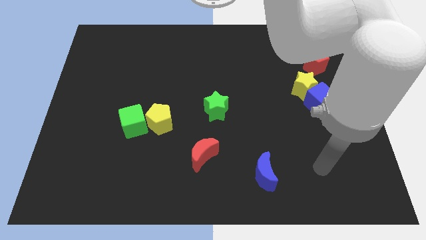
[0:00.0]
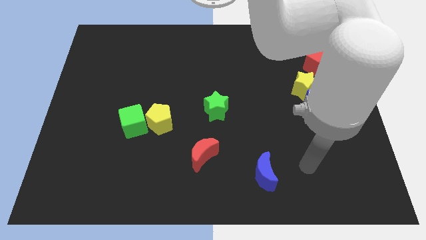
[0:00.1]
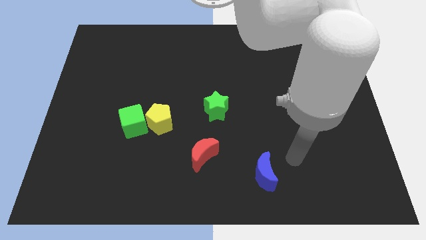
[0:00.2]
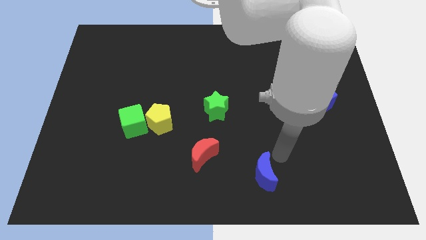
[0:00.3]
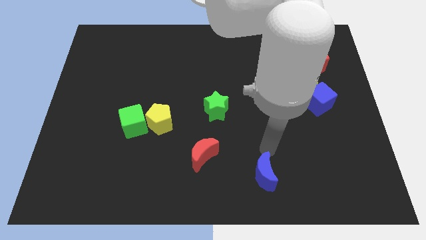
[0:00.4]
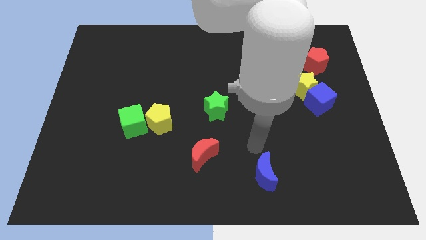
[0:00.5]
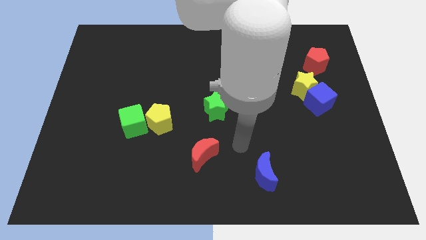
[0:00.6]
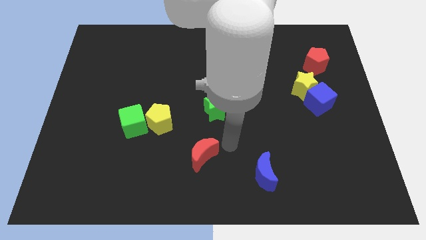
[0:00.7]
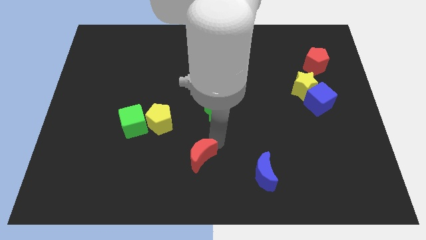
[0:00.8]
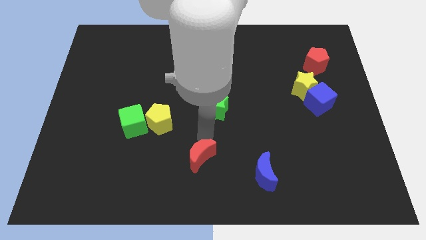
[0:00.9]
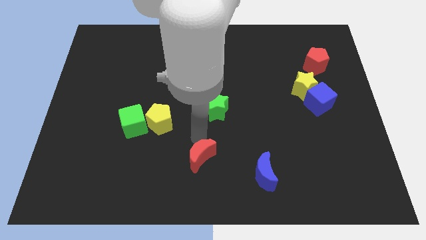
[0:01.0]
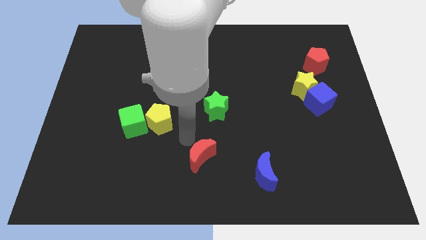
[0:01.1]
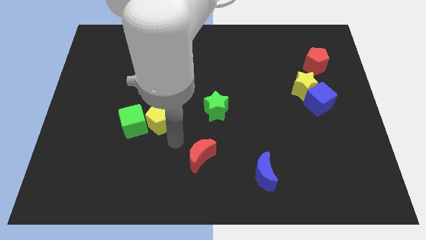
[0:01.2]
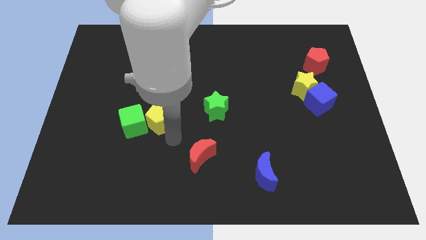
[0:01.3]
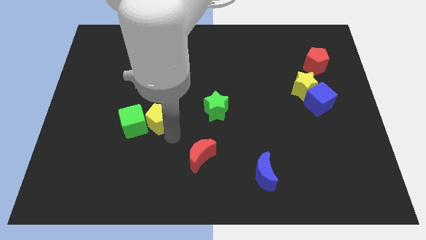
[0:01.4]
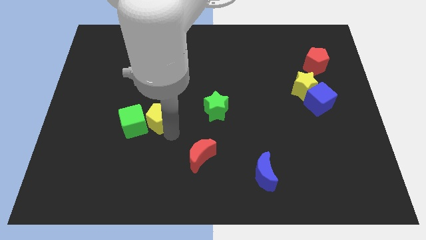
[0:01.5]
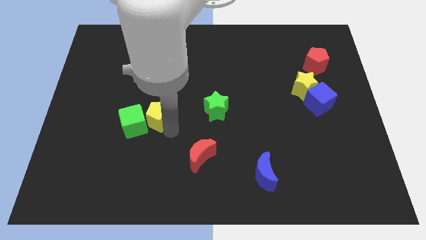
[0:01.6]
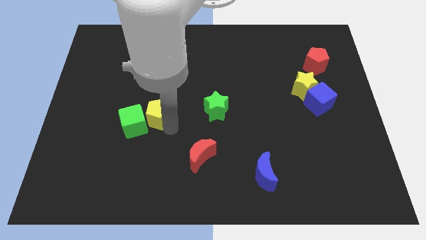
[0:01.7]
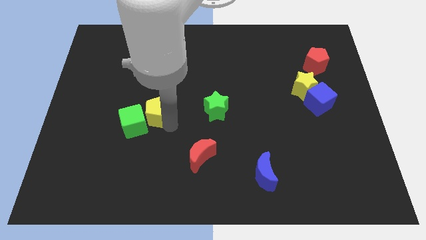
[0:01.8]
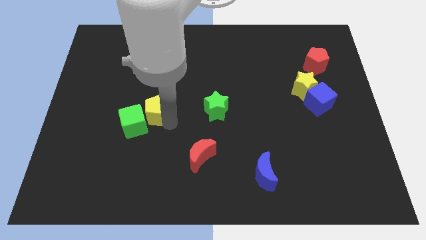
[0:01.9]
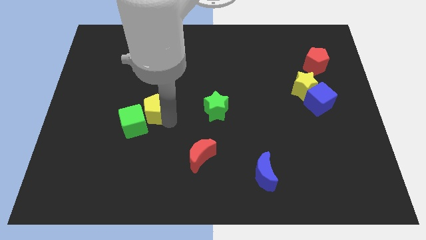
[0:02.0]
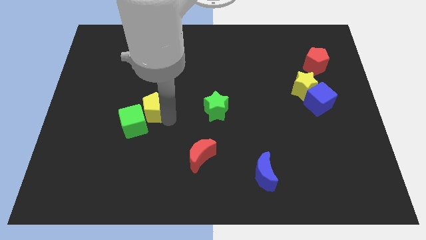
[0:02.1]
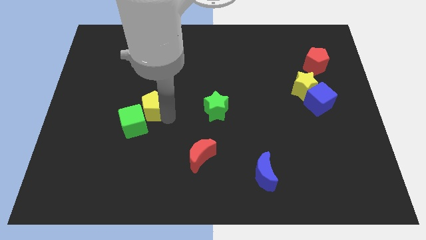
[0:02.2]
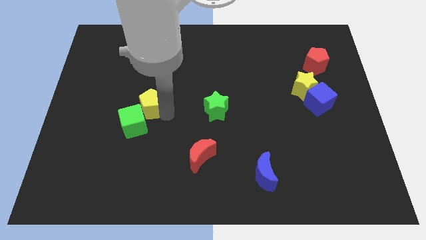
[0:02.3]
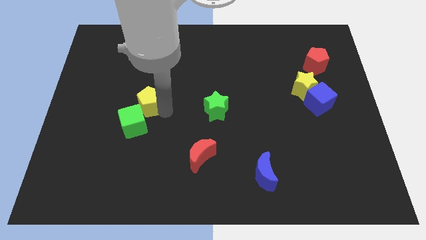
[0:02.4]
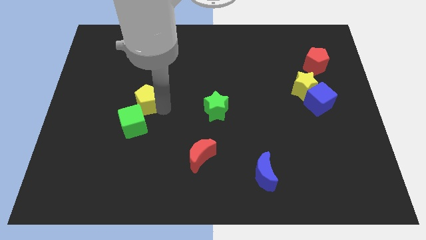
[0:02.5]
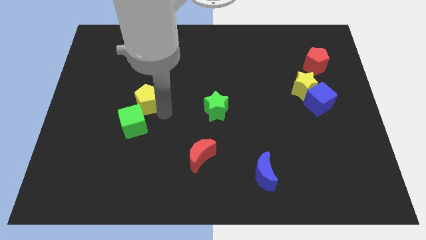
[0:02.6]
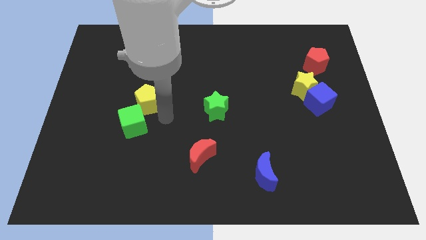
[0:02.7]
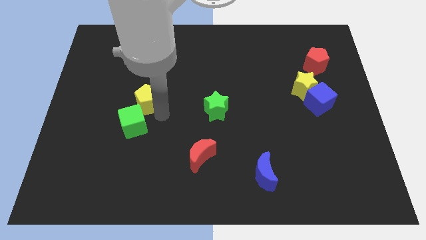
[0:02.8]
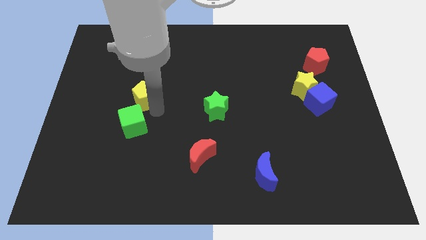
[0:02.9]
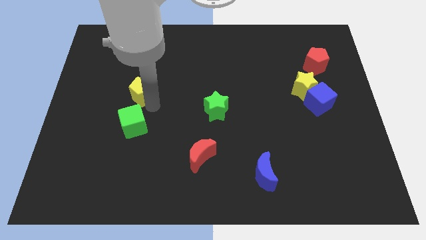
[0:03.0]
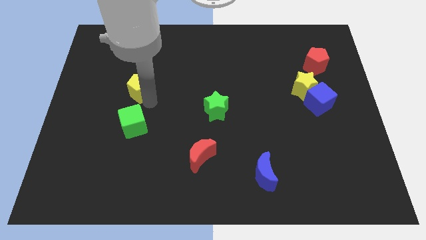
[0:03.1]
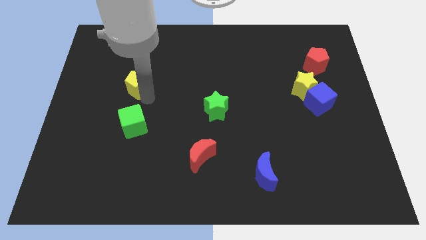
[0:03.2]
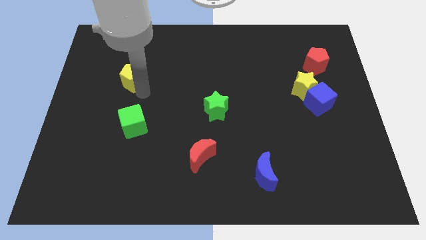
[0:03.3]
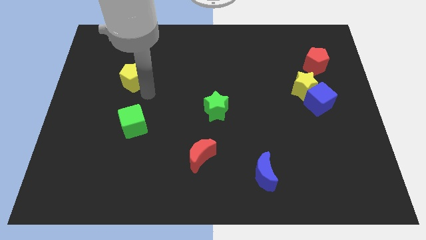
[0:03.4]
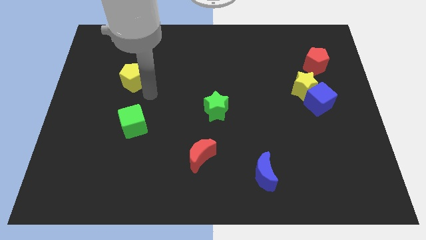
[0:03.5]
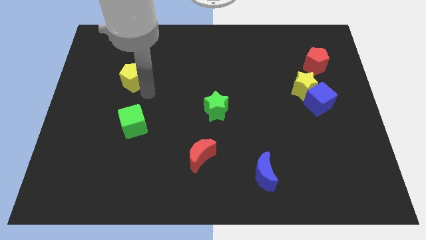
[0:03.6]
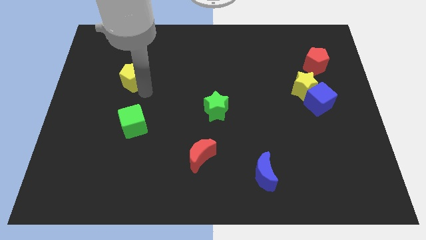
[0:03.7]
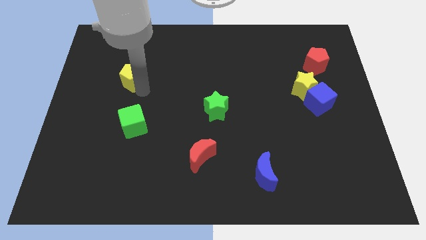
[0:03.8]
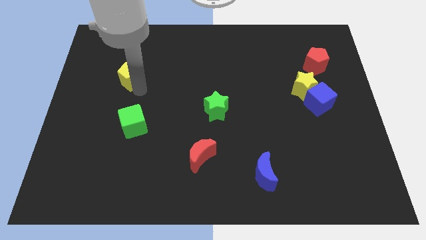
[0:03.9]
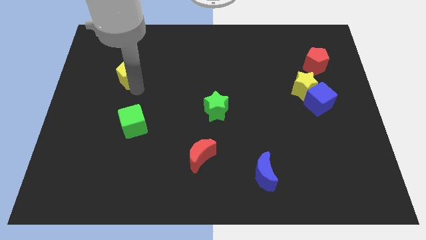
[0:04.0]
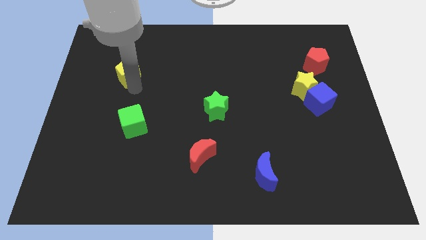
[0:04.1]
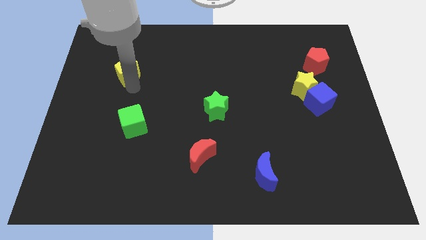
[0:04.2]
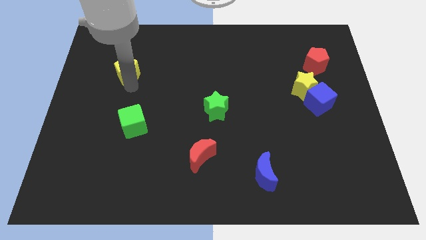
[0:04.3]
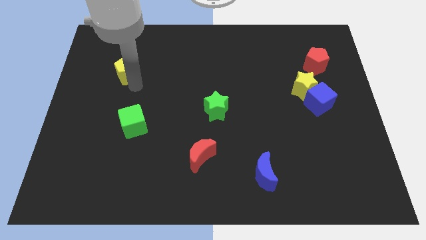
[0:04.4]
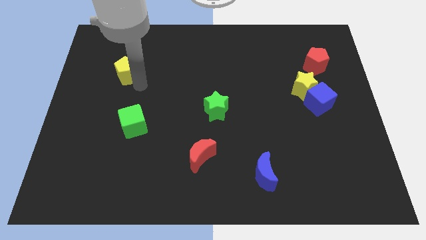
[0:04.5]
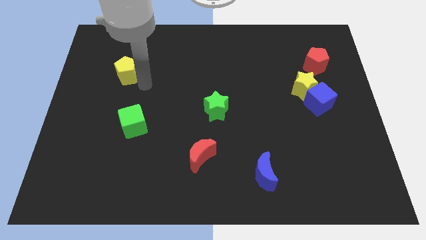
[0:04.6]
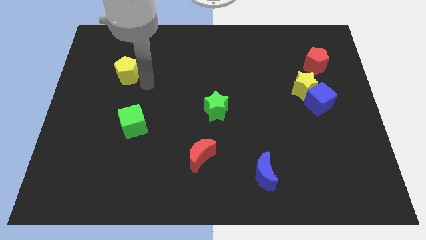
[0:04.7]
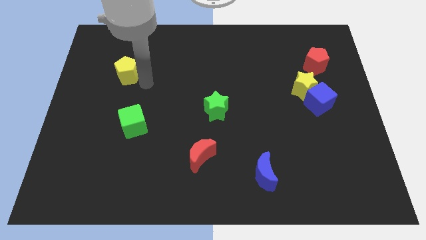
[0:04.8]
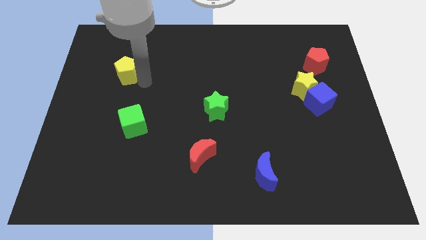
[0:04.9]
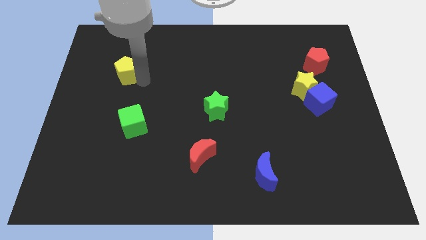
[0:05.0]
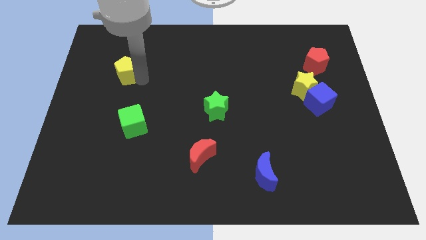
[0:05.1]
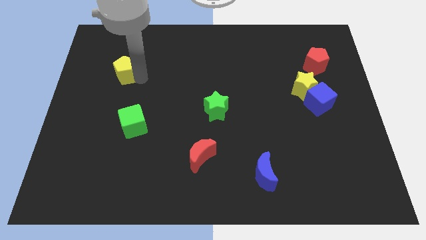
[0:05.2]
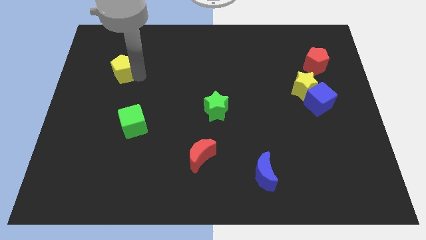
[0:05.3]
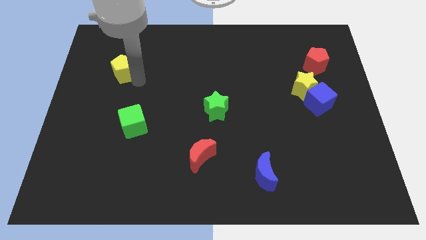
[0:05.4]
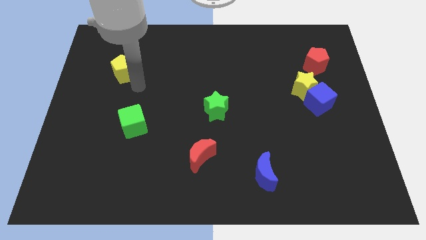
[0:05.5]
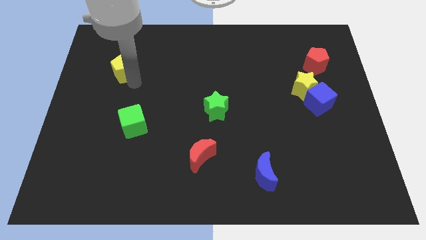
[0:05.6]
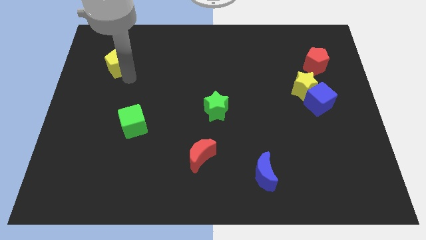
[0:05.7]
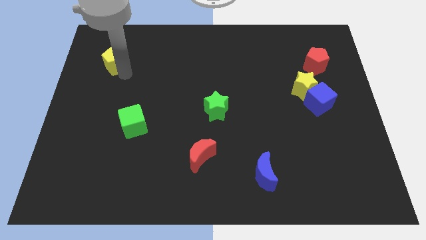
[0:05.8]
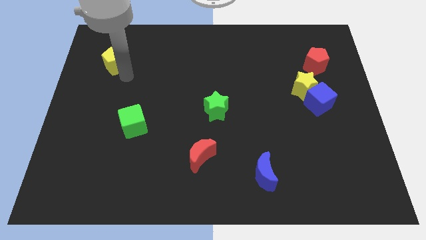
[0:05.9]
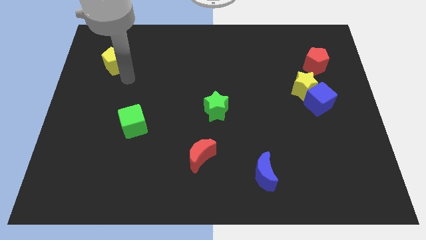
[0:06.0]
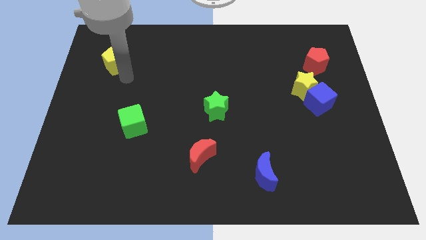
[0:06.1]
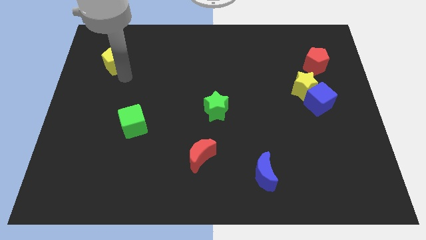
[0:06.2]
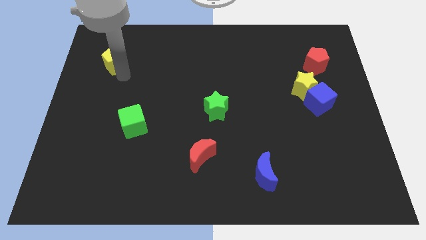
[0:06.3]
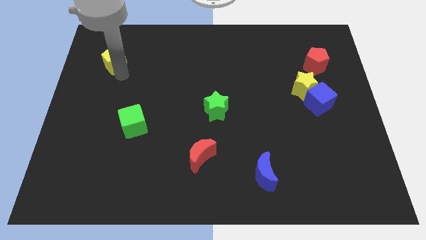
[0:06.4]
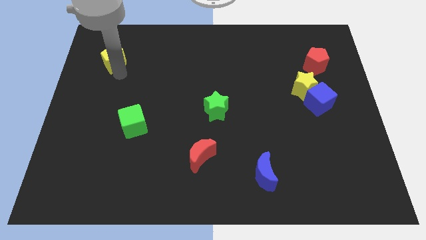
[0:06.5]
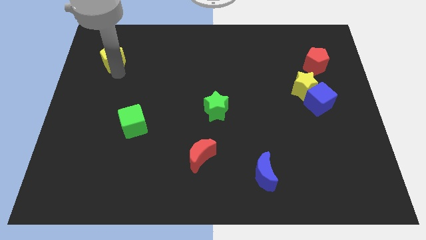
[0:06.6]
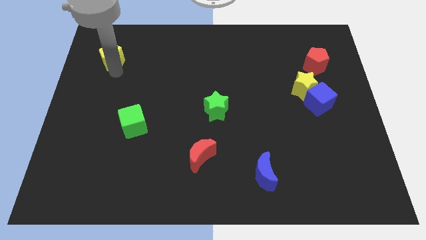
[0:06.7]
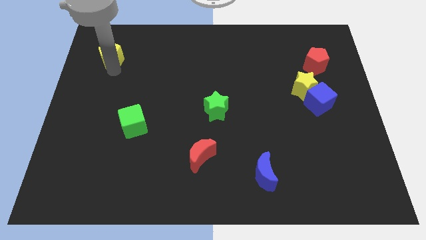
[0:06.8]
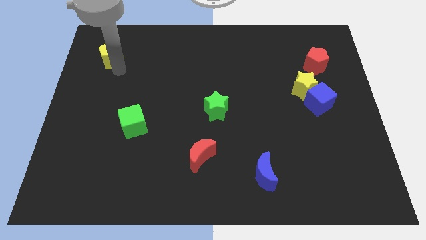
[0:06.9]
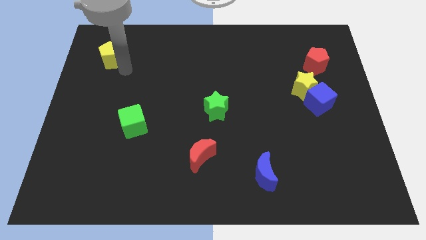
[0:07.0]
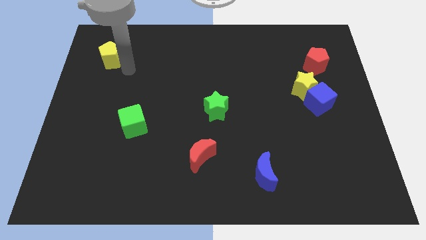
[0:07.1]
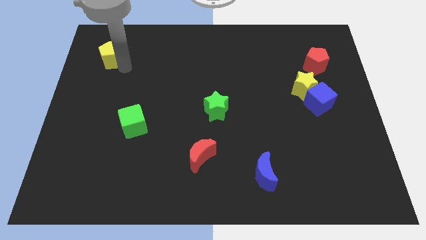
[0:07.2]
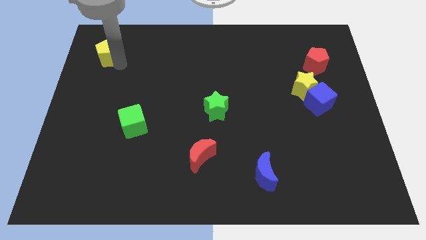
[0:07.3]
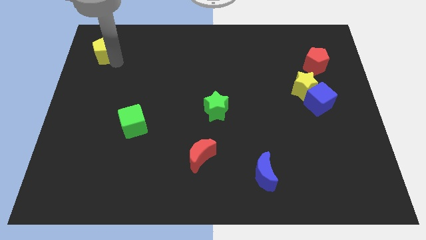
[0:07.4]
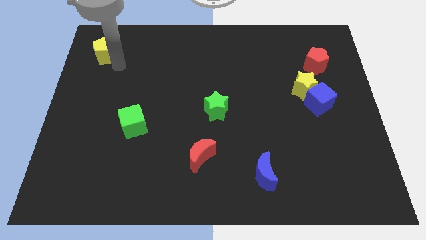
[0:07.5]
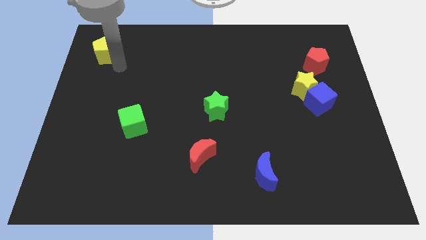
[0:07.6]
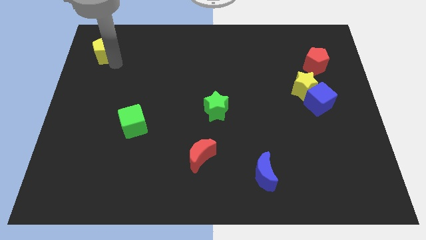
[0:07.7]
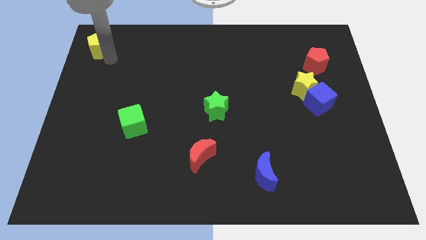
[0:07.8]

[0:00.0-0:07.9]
move the yellow pentagon to the top left corner
